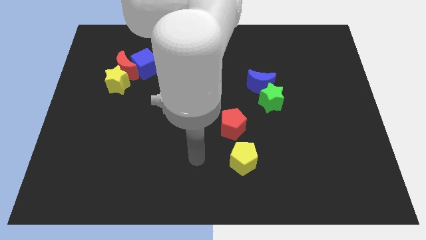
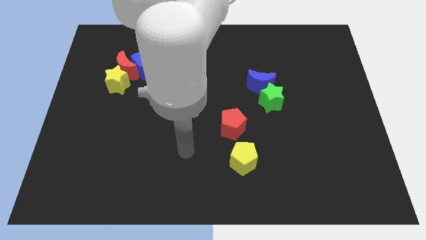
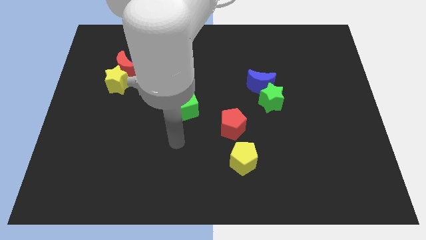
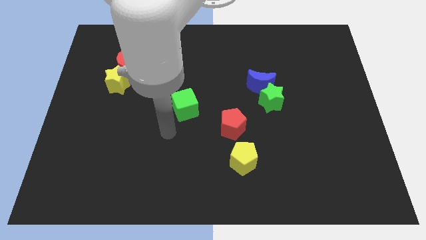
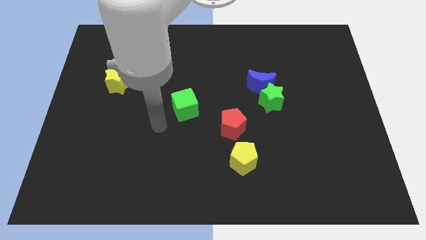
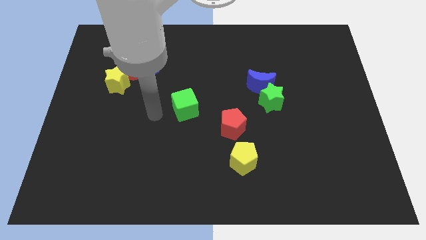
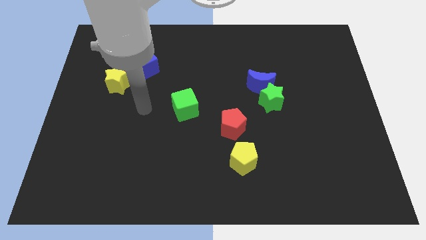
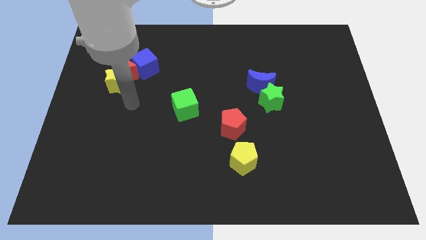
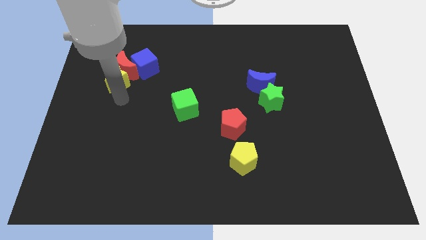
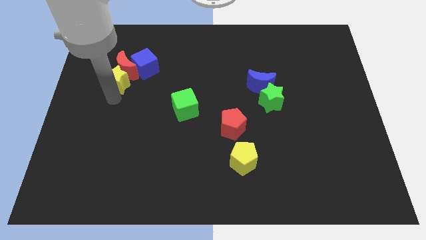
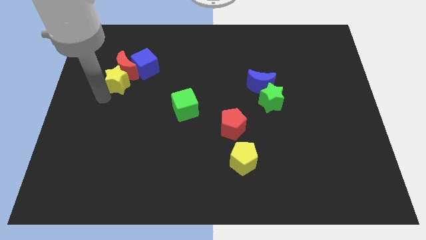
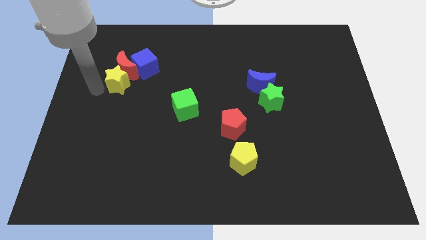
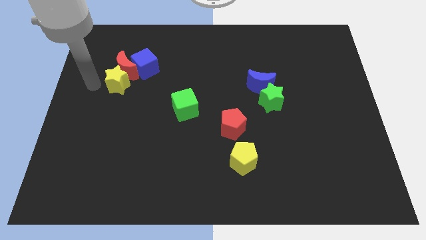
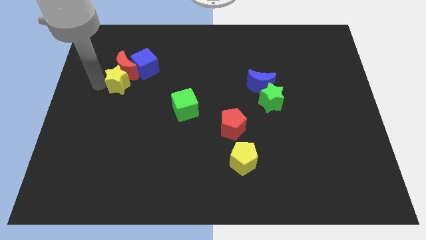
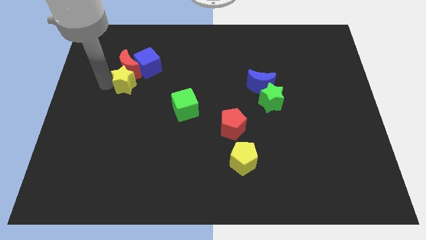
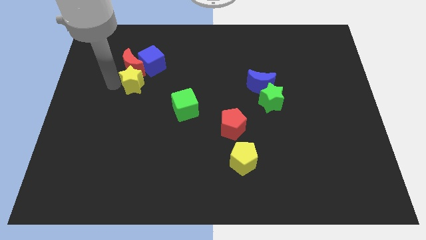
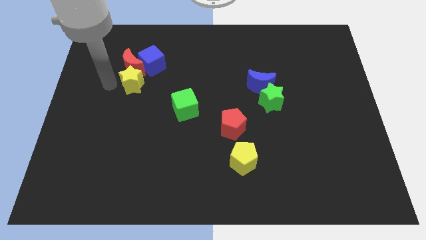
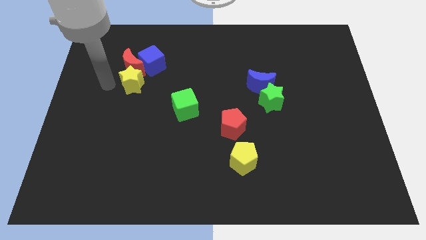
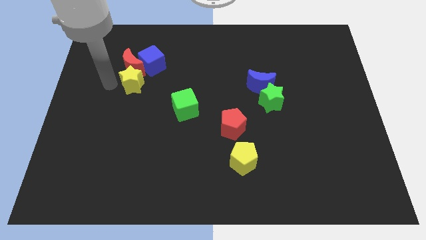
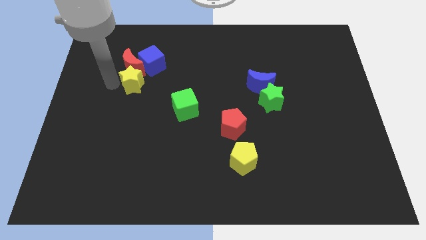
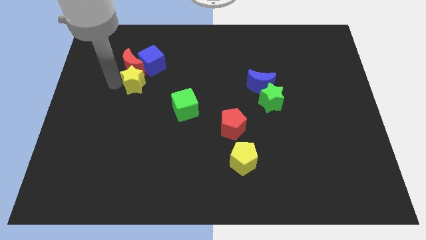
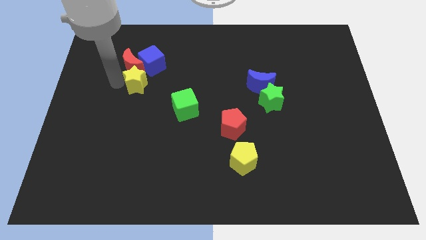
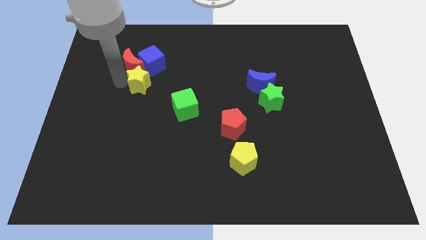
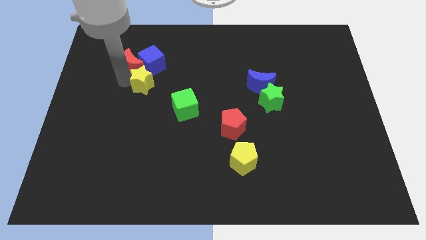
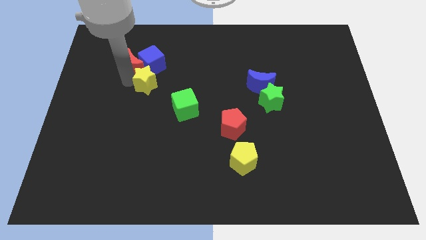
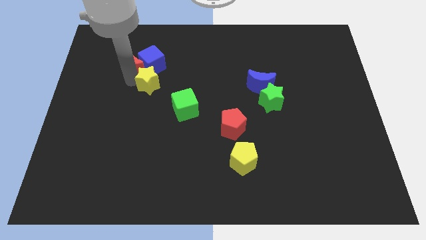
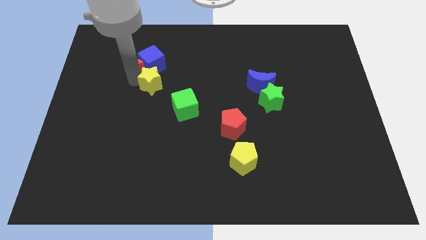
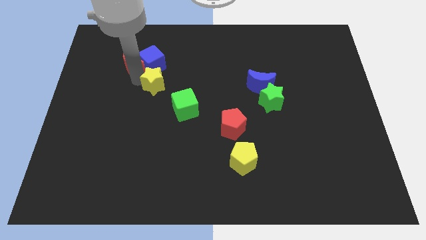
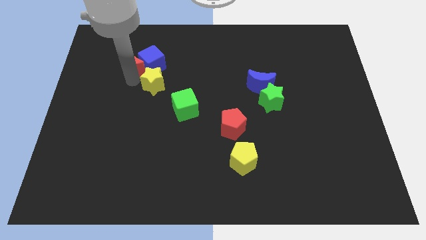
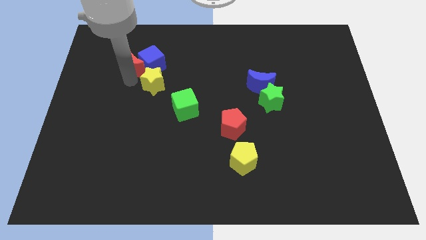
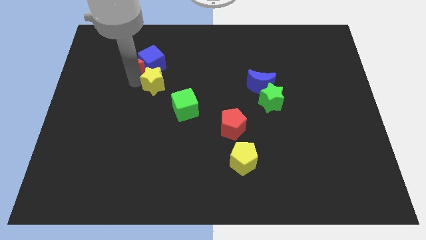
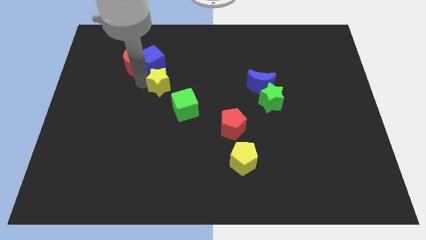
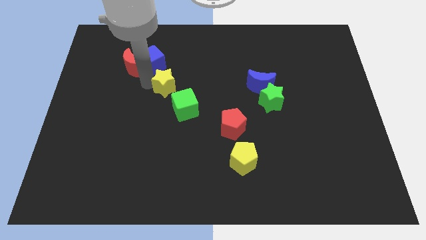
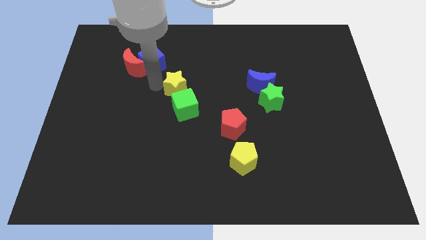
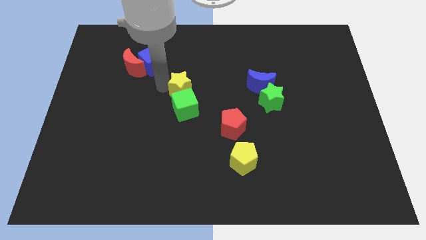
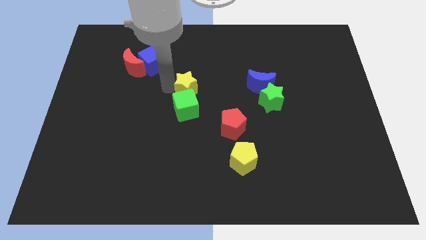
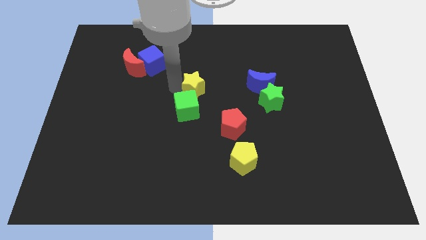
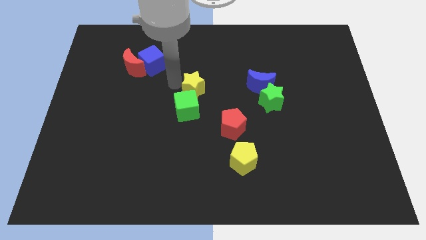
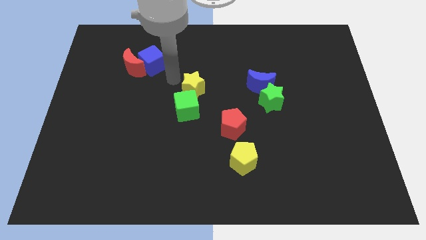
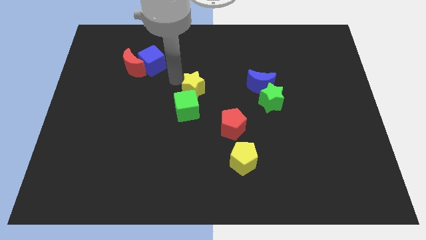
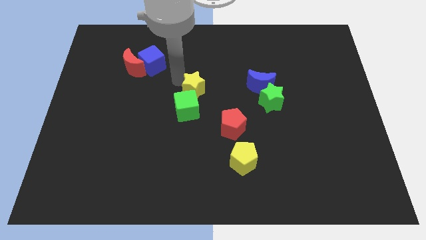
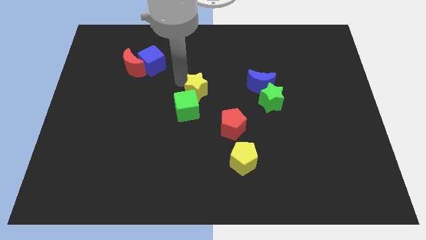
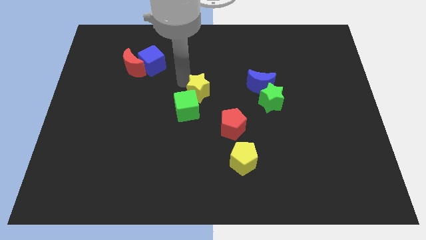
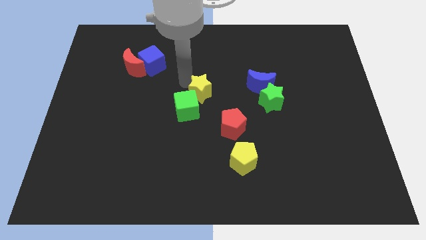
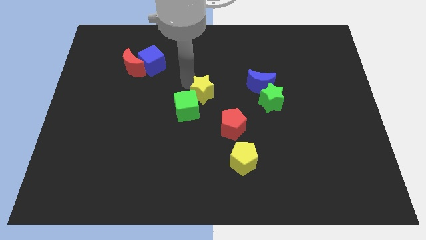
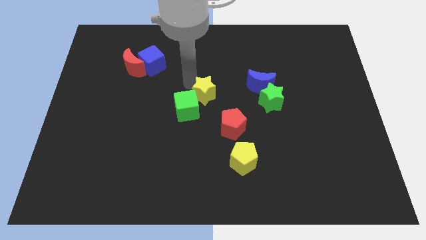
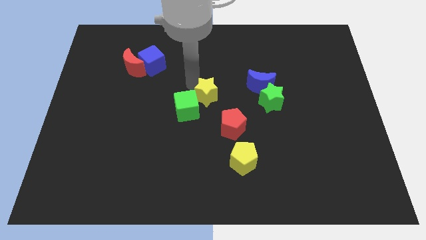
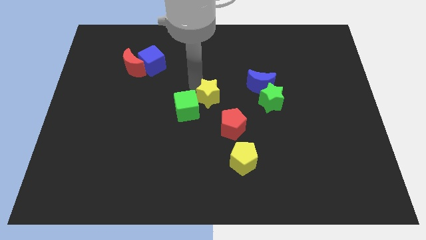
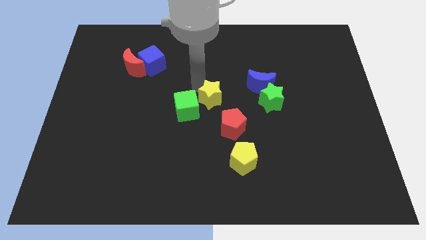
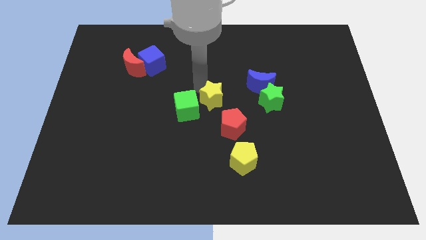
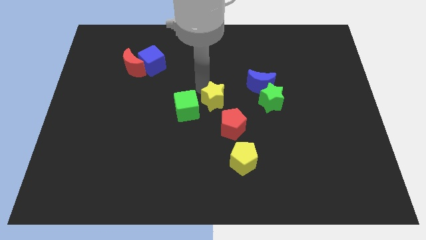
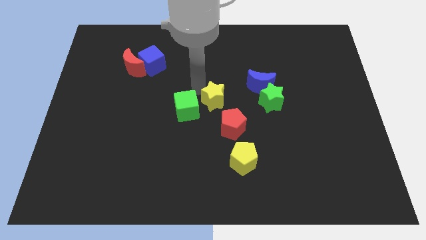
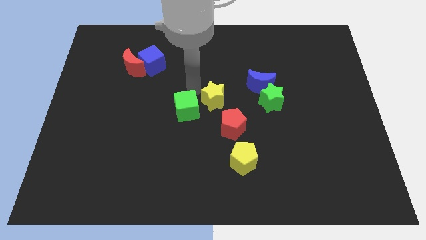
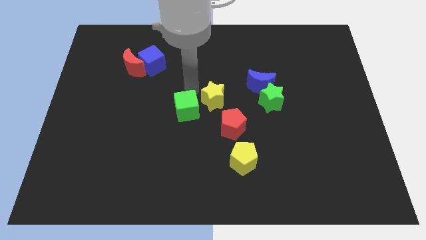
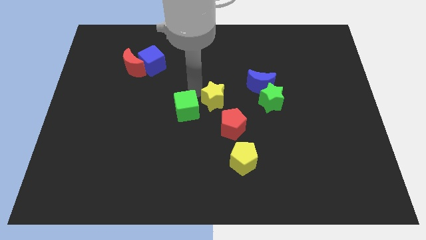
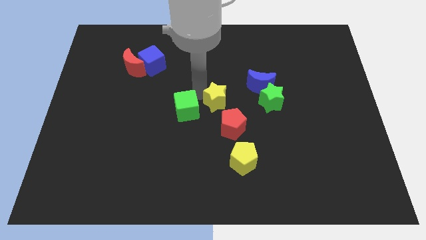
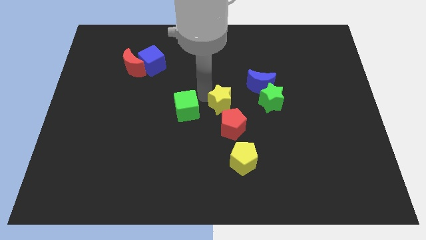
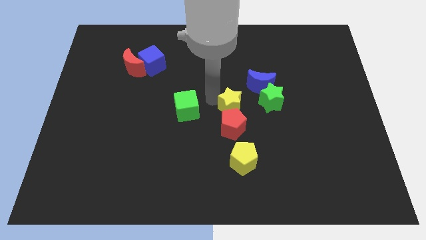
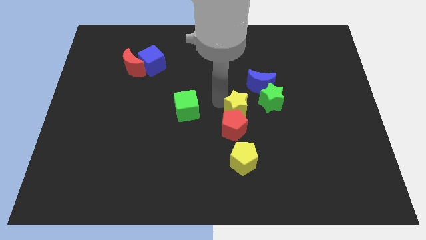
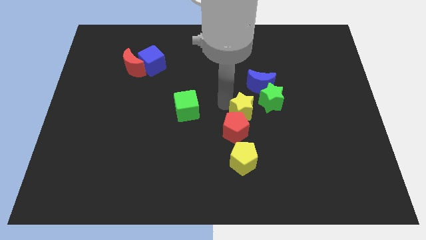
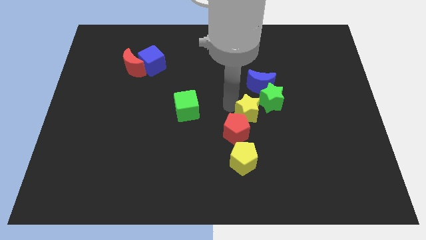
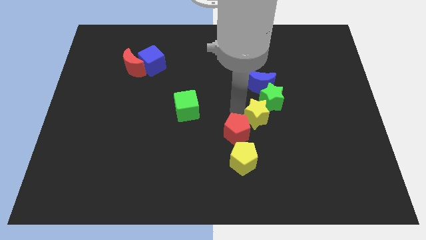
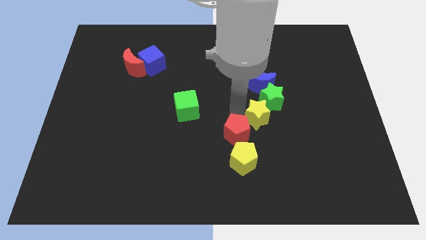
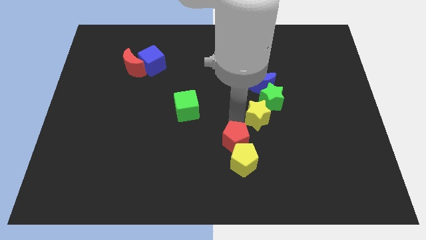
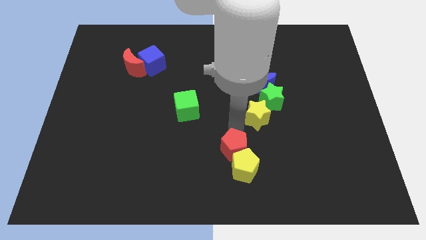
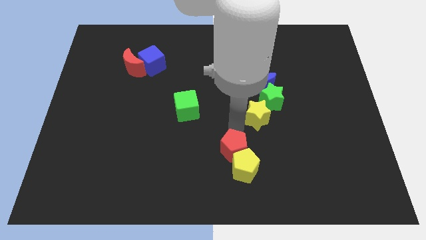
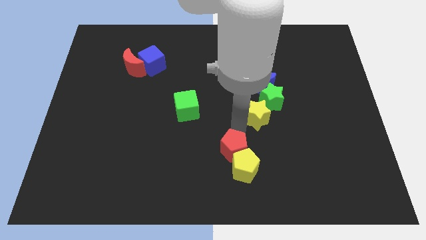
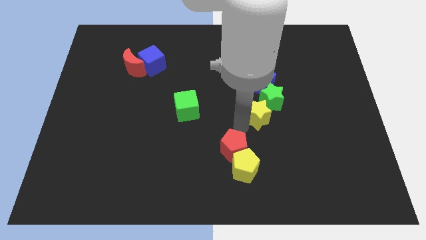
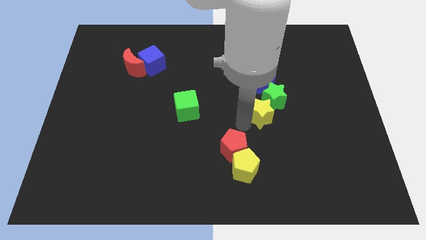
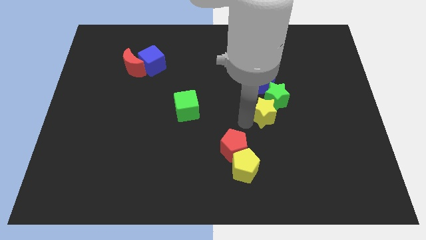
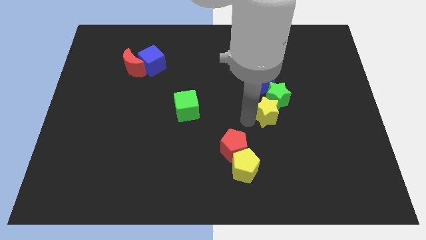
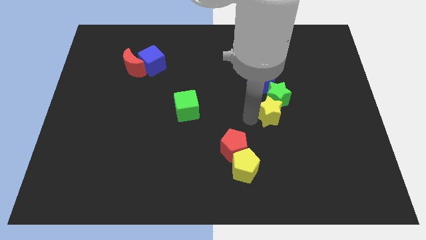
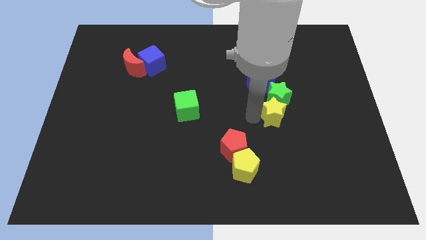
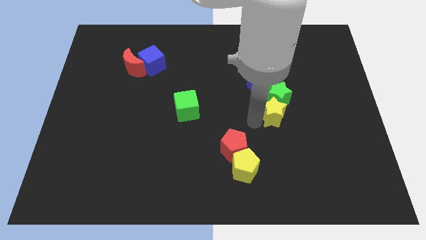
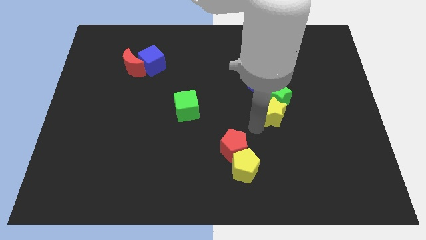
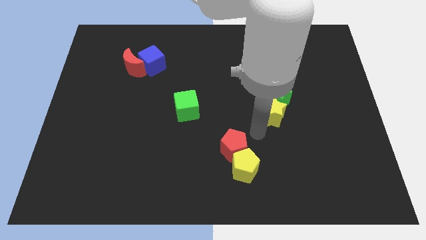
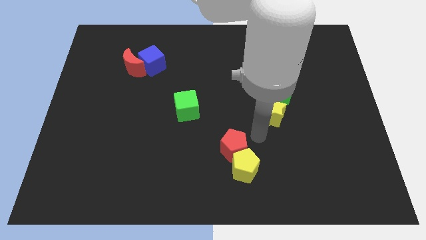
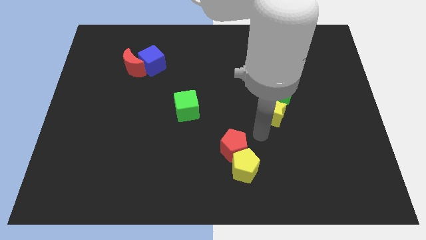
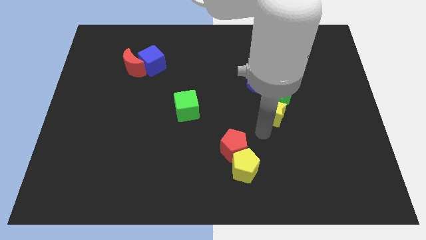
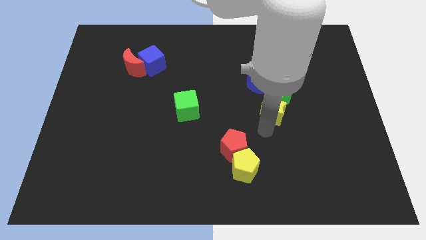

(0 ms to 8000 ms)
move the yellow star to the bottom right side of the blue moon
